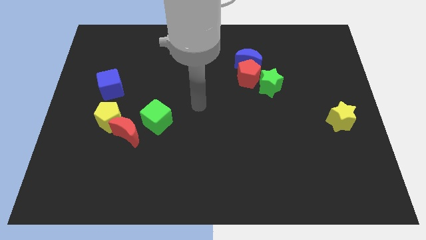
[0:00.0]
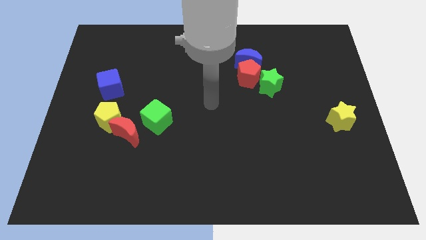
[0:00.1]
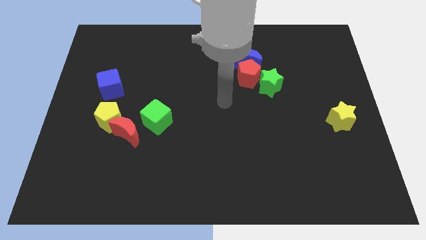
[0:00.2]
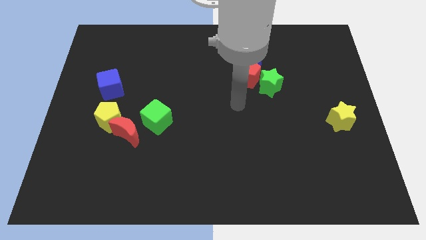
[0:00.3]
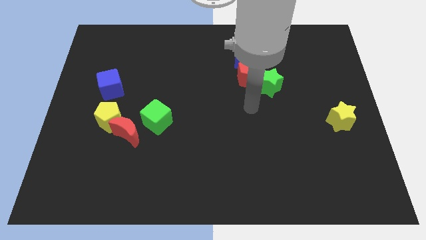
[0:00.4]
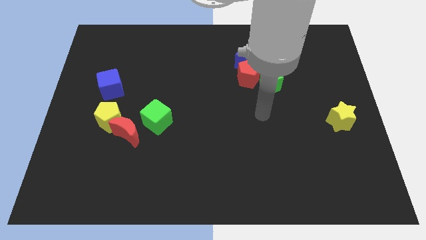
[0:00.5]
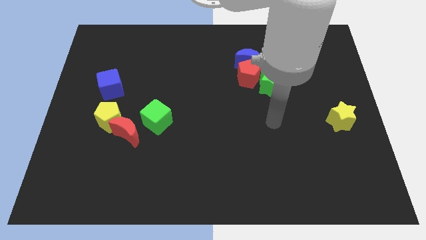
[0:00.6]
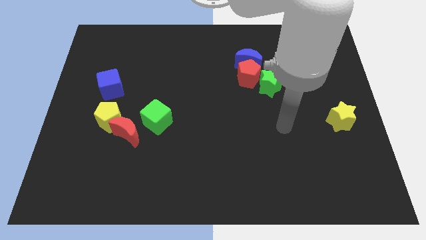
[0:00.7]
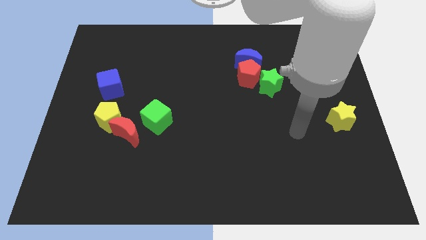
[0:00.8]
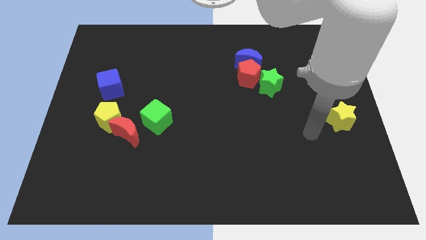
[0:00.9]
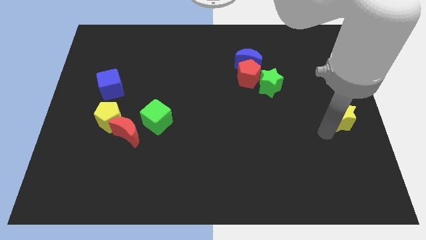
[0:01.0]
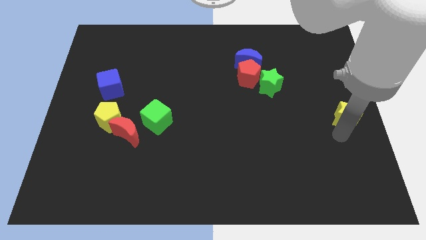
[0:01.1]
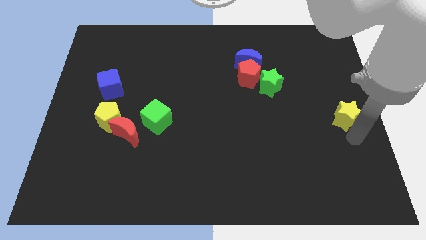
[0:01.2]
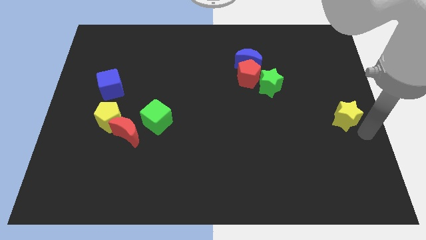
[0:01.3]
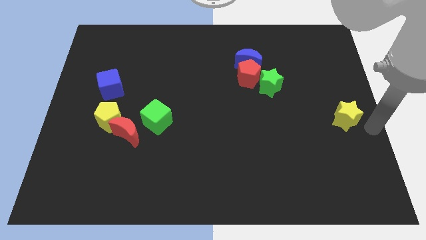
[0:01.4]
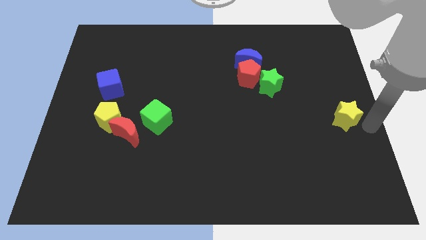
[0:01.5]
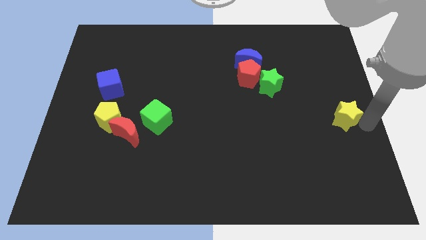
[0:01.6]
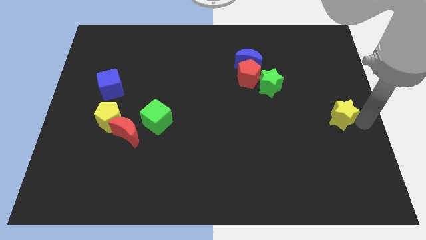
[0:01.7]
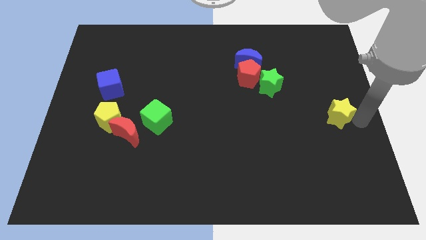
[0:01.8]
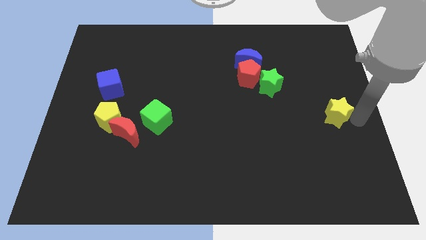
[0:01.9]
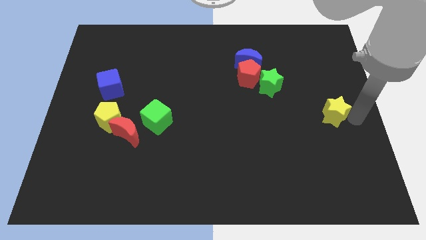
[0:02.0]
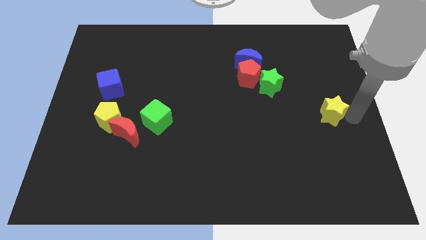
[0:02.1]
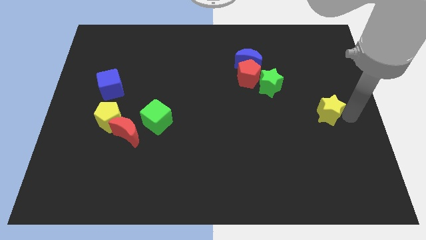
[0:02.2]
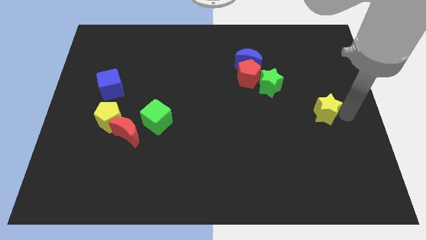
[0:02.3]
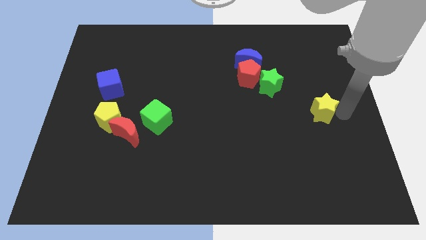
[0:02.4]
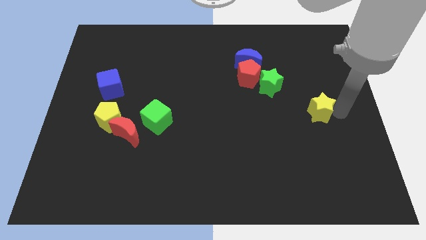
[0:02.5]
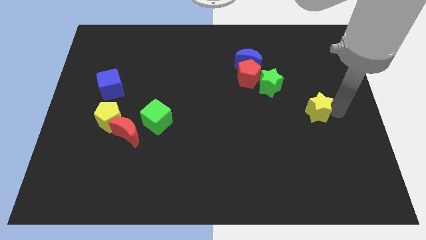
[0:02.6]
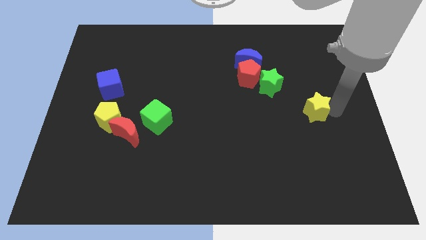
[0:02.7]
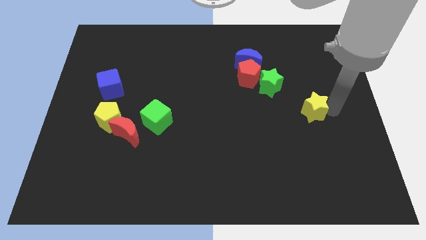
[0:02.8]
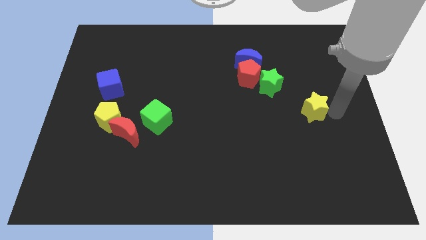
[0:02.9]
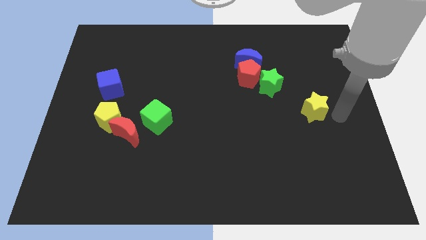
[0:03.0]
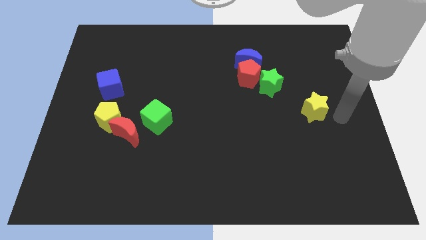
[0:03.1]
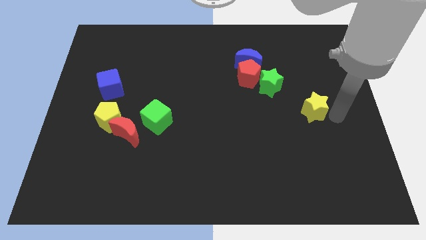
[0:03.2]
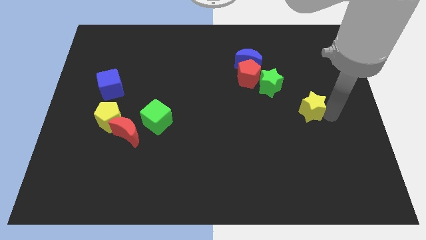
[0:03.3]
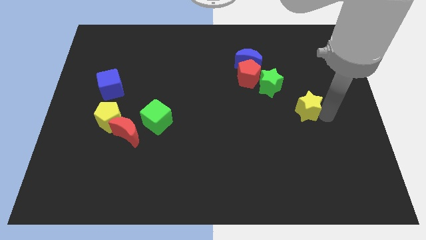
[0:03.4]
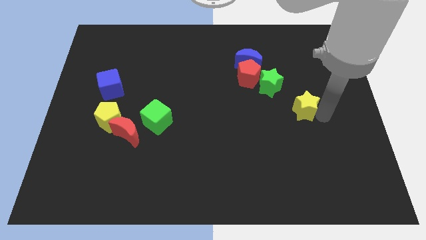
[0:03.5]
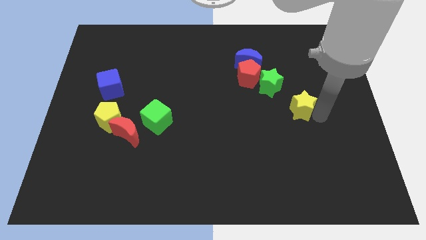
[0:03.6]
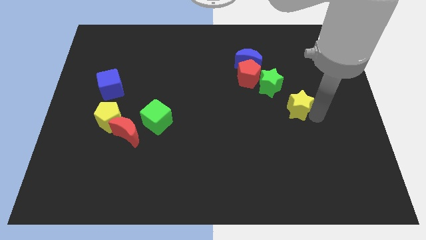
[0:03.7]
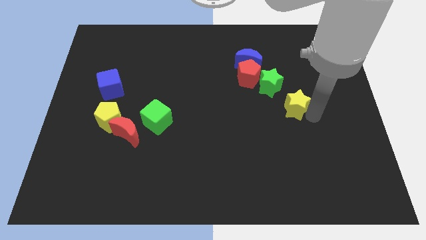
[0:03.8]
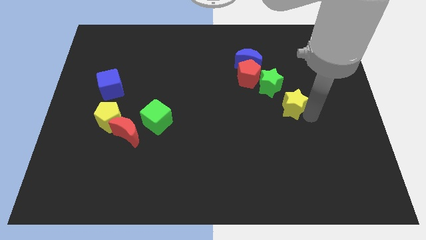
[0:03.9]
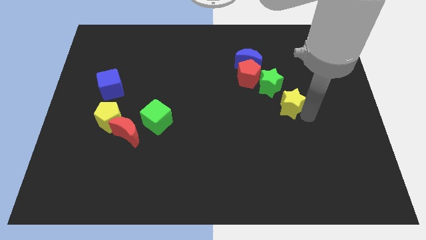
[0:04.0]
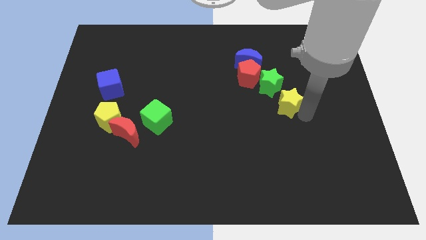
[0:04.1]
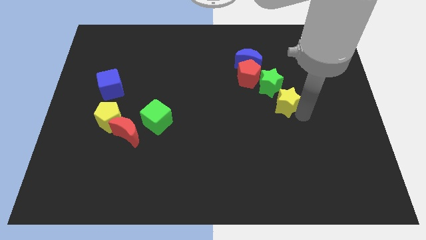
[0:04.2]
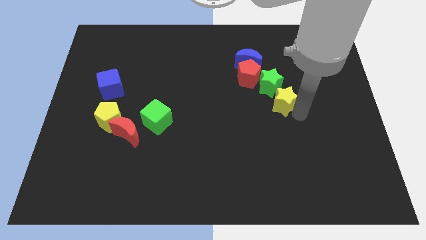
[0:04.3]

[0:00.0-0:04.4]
put the yellow star to the green star

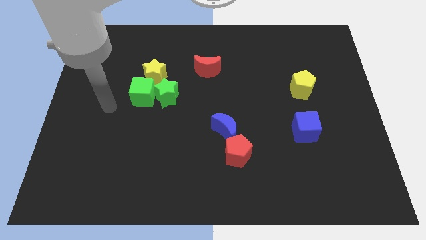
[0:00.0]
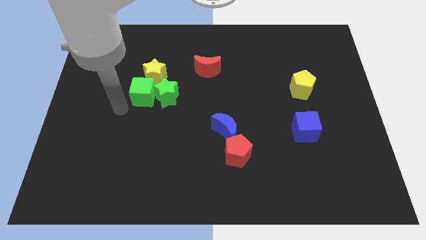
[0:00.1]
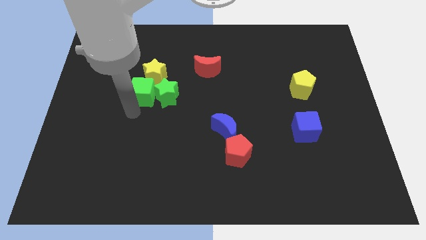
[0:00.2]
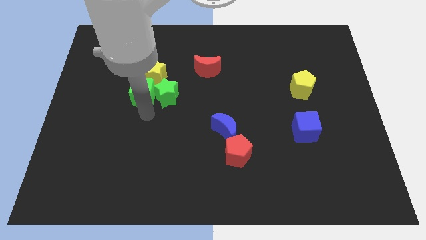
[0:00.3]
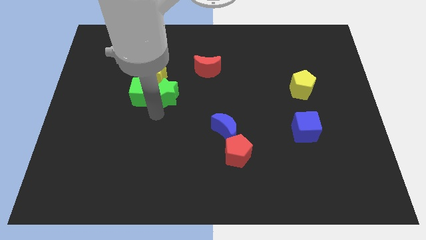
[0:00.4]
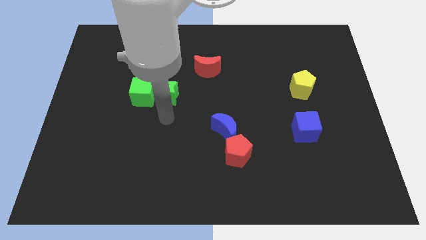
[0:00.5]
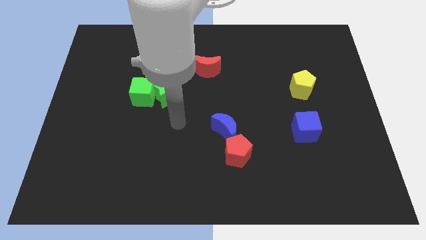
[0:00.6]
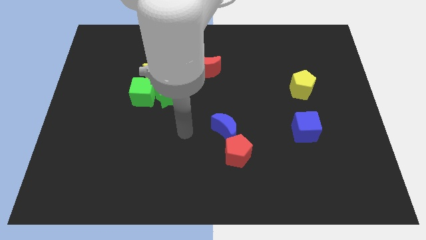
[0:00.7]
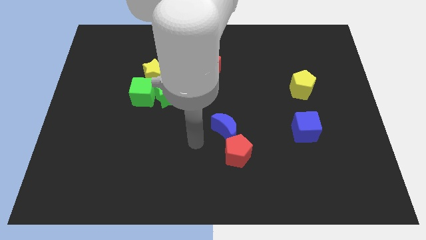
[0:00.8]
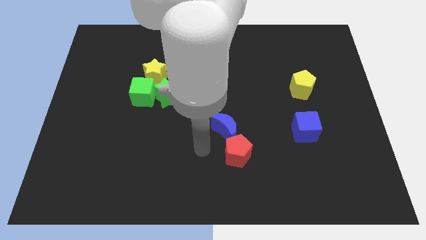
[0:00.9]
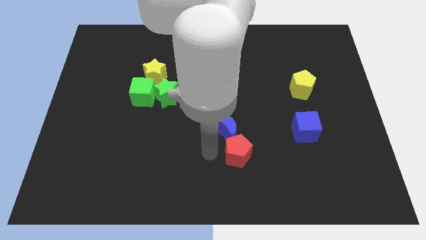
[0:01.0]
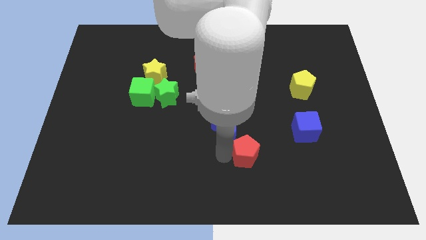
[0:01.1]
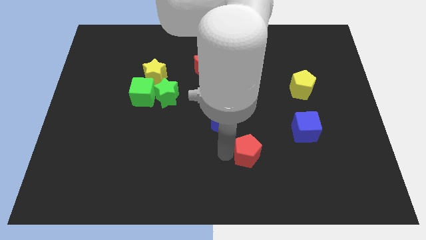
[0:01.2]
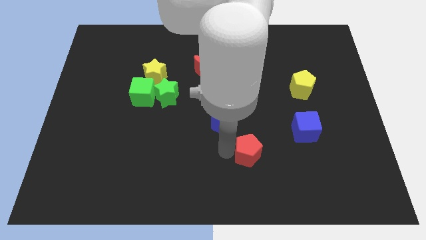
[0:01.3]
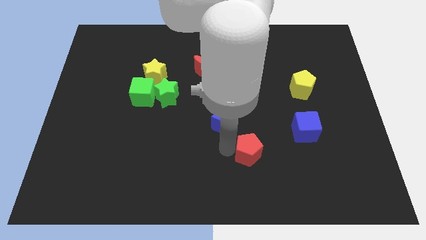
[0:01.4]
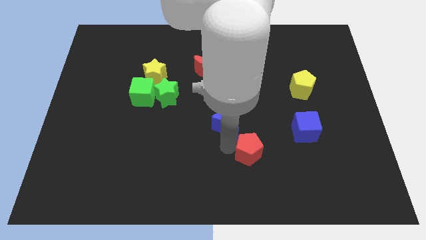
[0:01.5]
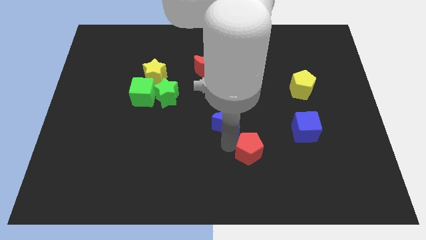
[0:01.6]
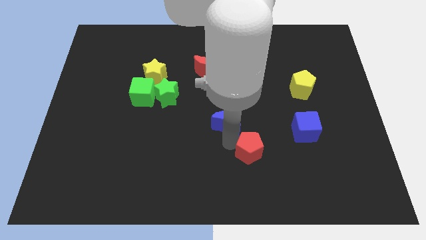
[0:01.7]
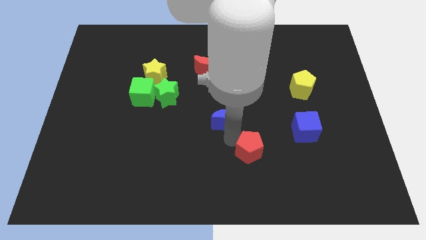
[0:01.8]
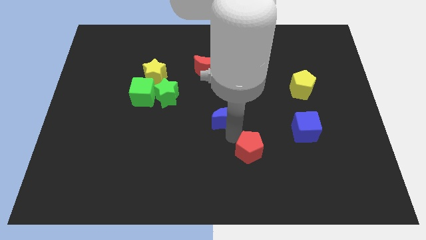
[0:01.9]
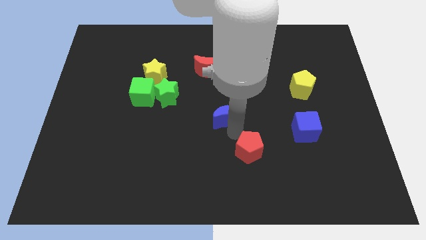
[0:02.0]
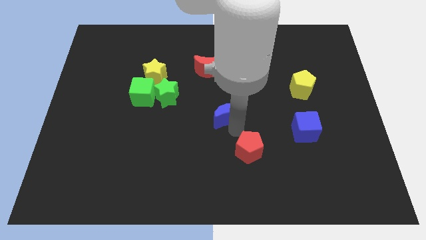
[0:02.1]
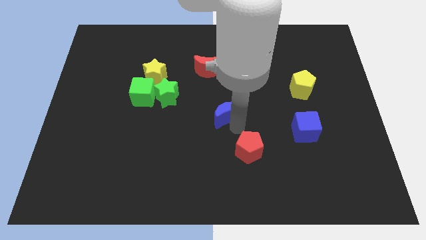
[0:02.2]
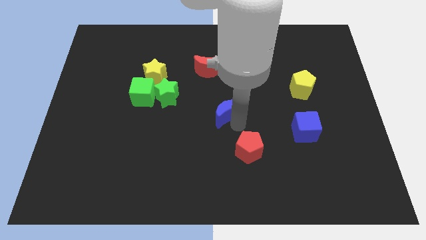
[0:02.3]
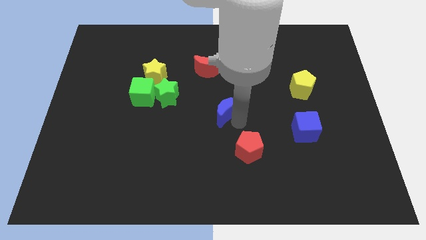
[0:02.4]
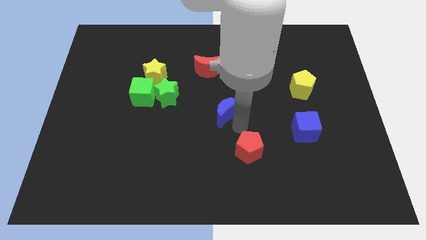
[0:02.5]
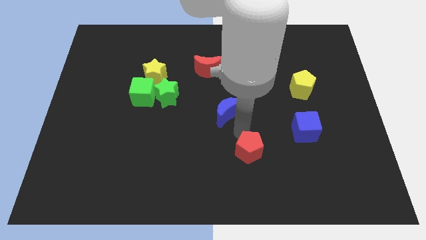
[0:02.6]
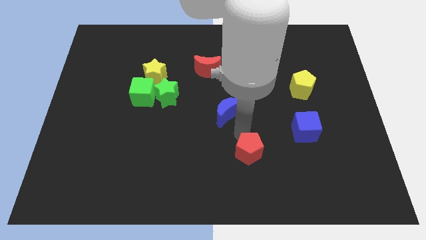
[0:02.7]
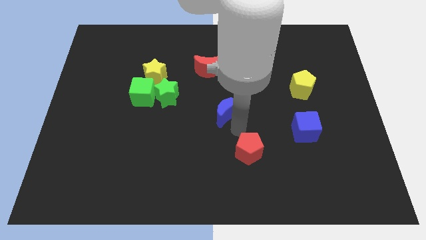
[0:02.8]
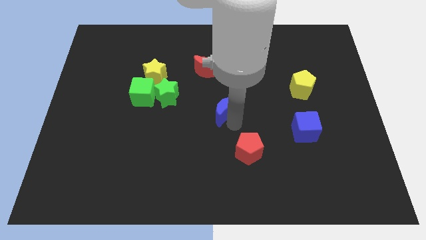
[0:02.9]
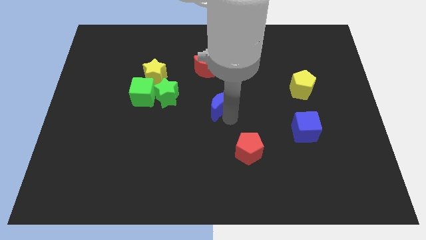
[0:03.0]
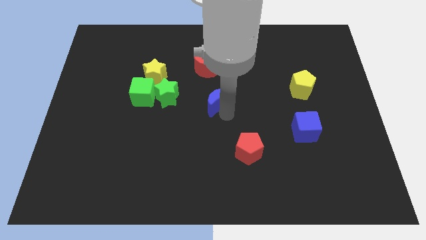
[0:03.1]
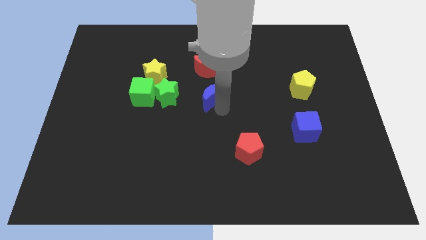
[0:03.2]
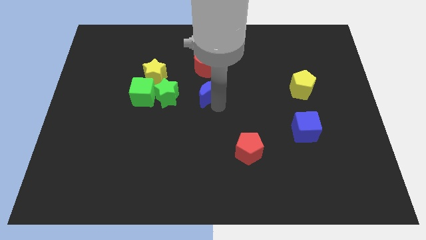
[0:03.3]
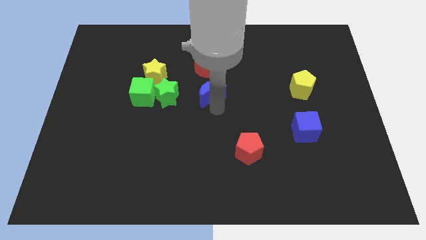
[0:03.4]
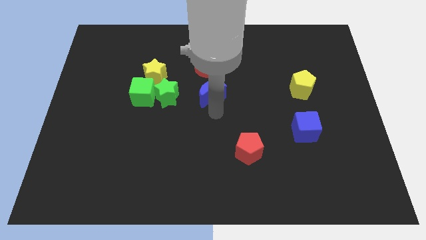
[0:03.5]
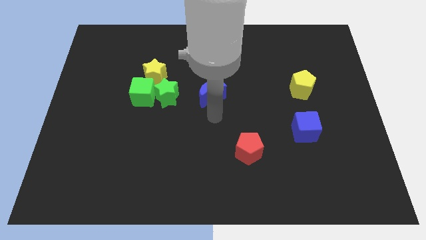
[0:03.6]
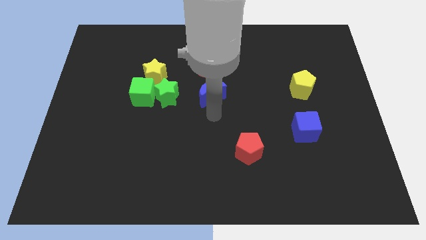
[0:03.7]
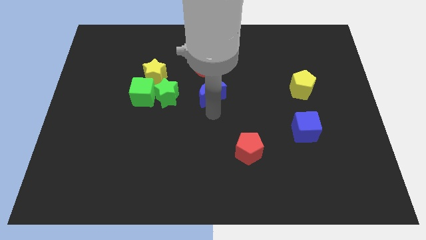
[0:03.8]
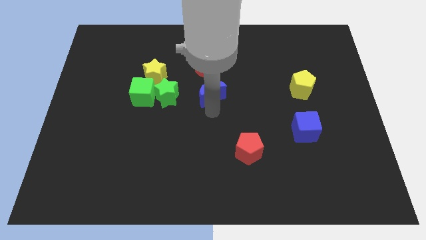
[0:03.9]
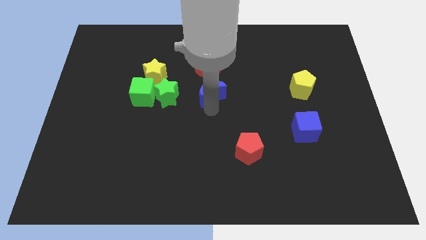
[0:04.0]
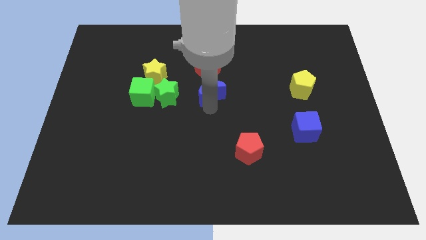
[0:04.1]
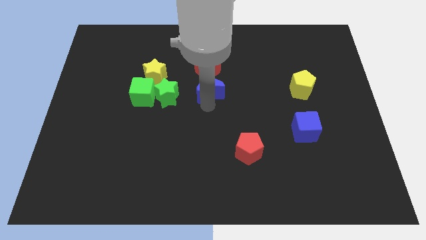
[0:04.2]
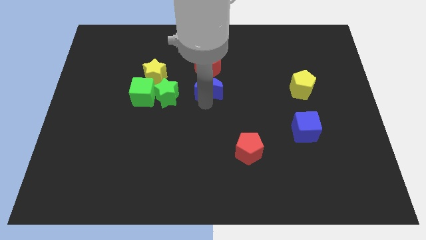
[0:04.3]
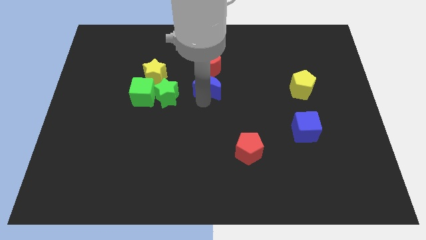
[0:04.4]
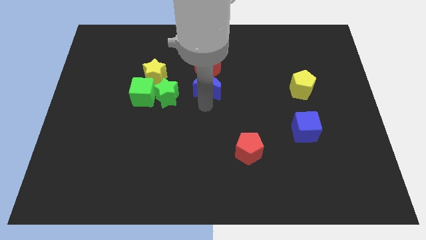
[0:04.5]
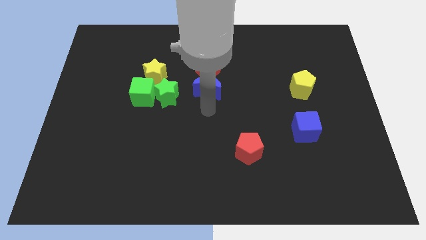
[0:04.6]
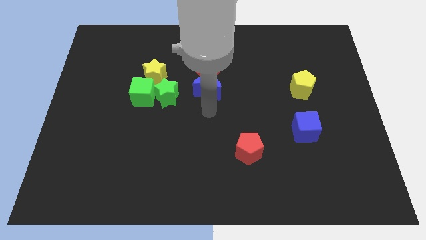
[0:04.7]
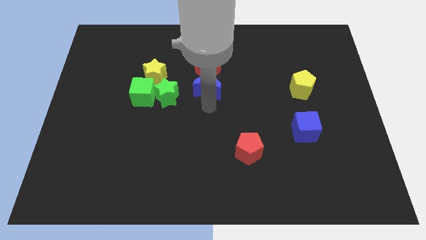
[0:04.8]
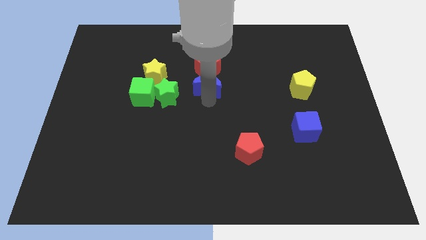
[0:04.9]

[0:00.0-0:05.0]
push the blue moon close to the red moon
